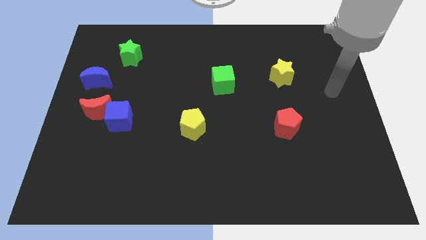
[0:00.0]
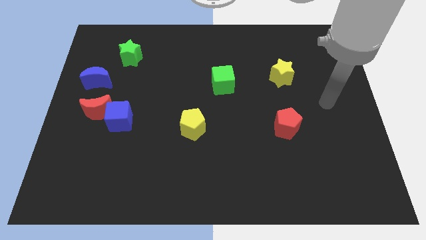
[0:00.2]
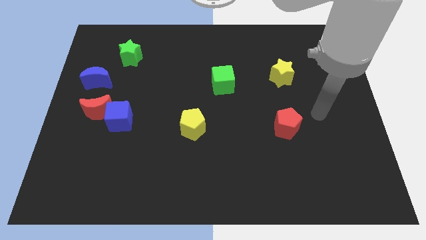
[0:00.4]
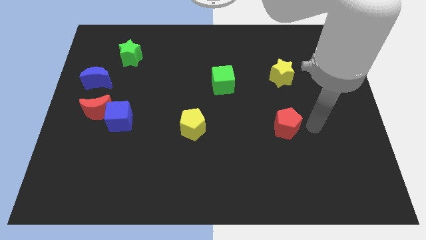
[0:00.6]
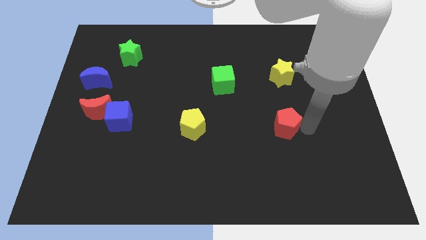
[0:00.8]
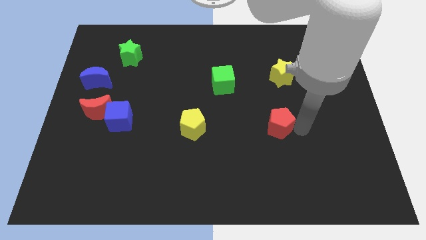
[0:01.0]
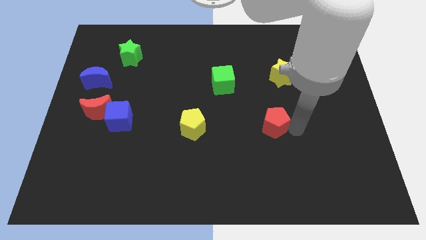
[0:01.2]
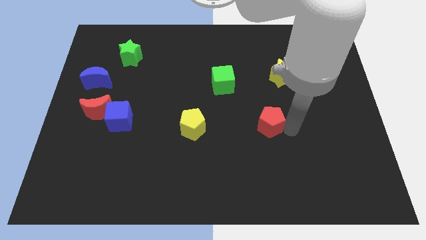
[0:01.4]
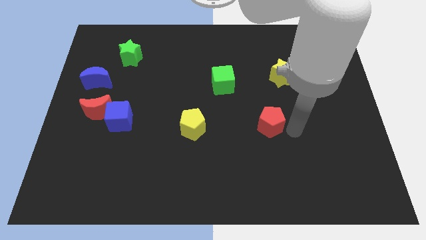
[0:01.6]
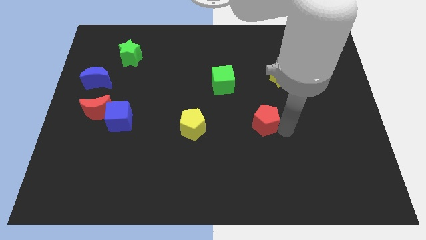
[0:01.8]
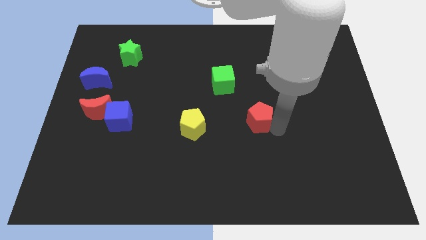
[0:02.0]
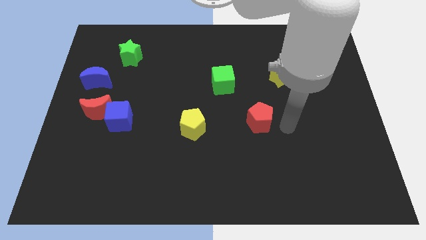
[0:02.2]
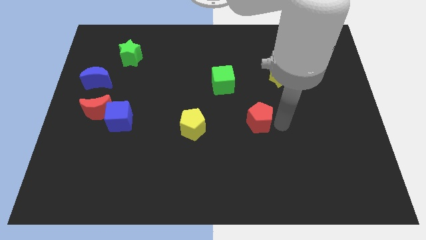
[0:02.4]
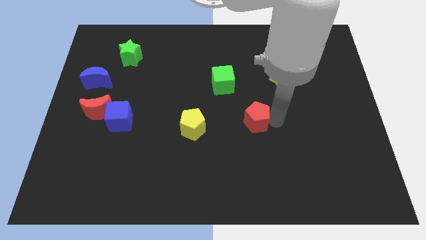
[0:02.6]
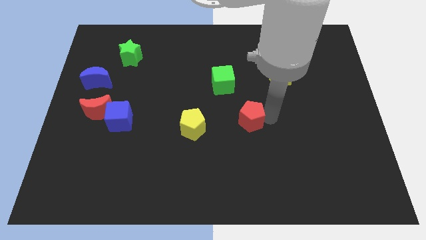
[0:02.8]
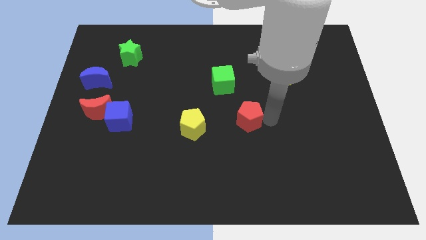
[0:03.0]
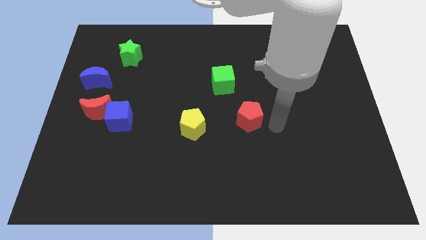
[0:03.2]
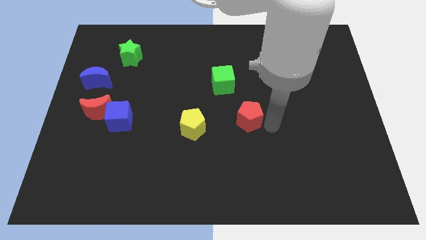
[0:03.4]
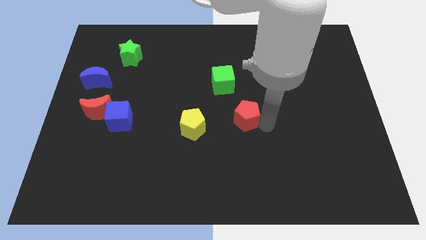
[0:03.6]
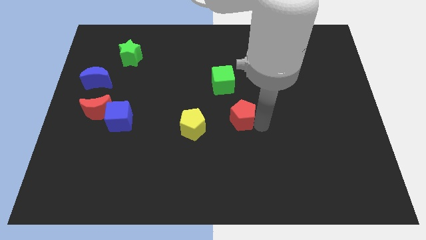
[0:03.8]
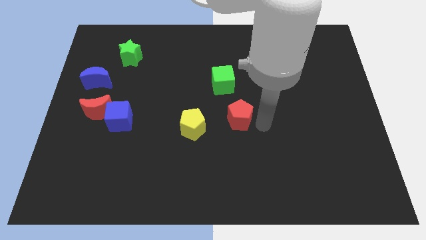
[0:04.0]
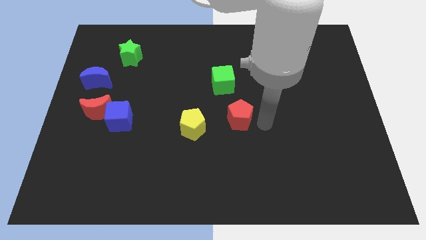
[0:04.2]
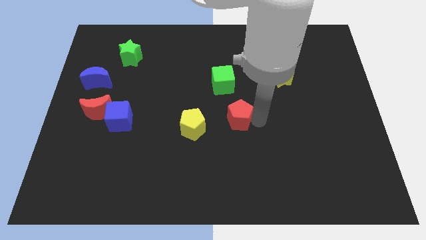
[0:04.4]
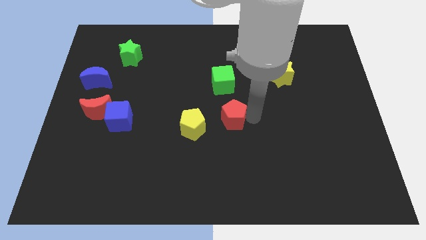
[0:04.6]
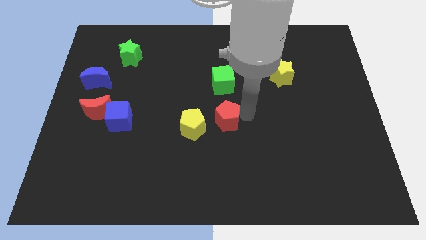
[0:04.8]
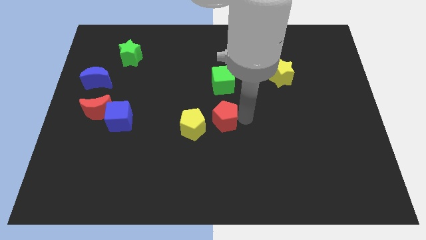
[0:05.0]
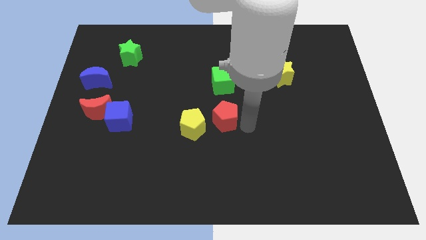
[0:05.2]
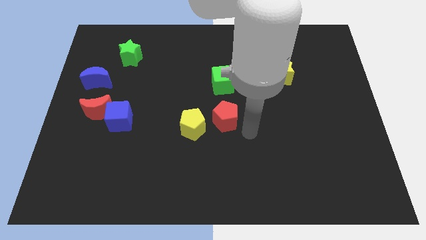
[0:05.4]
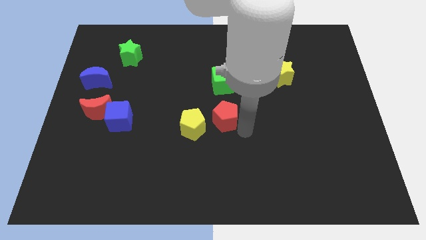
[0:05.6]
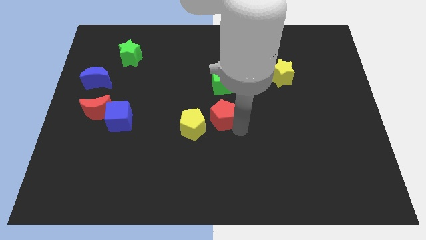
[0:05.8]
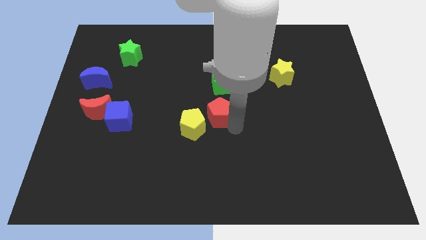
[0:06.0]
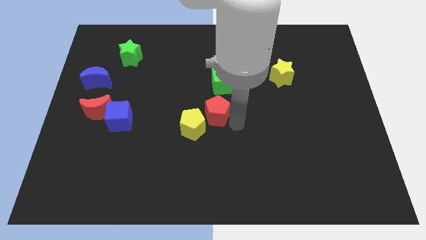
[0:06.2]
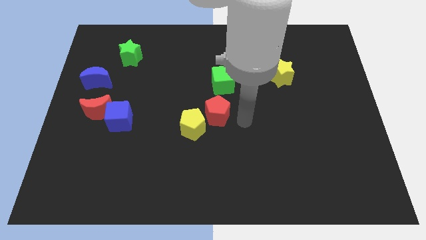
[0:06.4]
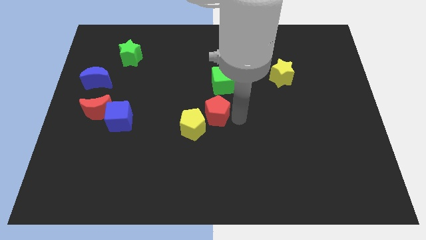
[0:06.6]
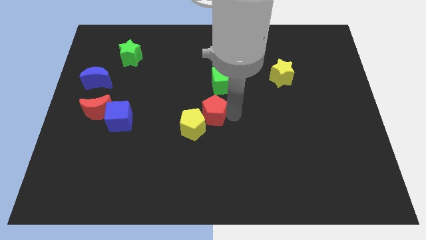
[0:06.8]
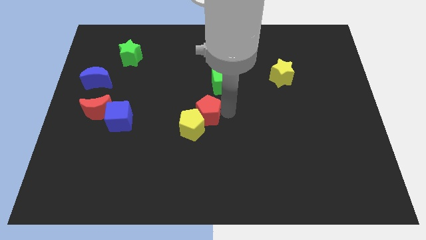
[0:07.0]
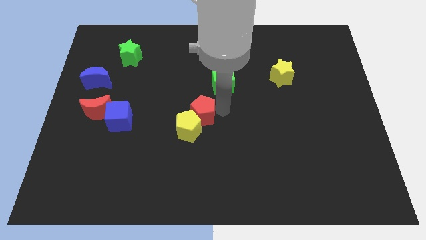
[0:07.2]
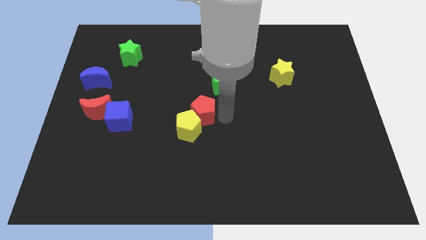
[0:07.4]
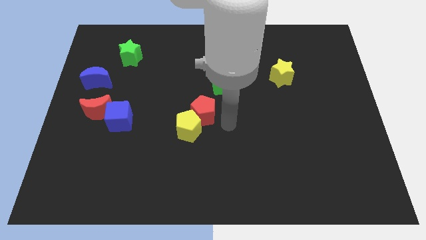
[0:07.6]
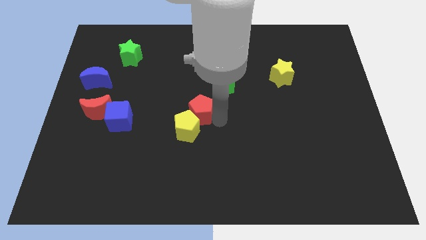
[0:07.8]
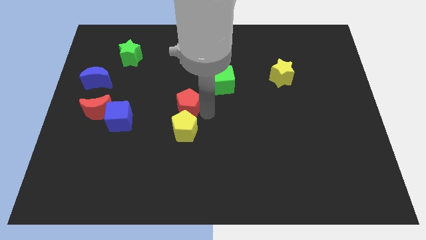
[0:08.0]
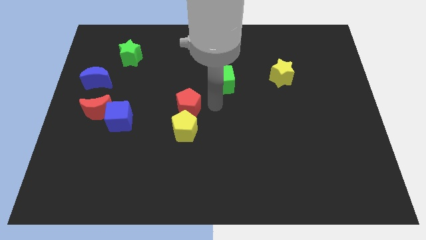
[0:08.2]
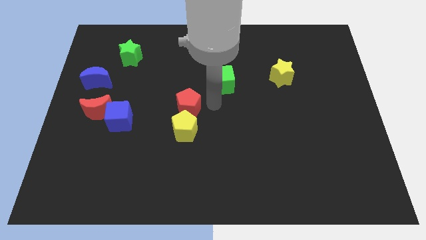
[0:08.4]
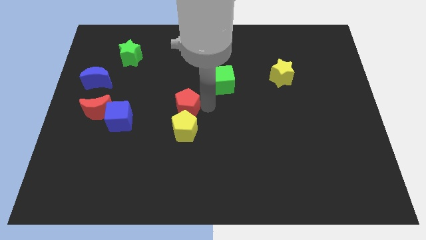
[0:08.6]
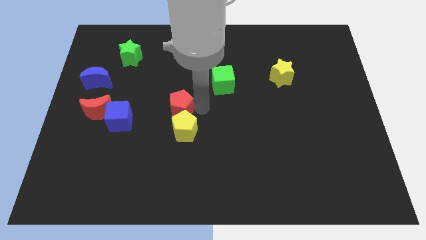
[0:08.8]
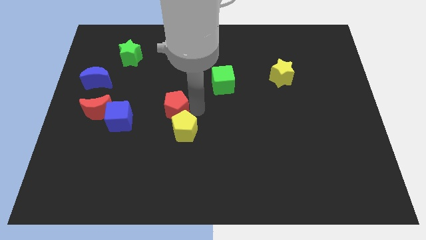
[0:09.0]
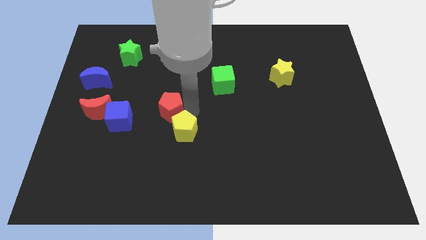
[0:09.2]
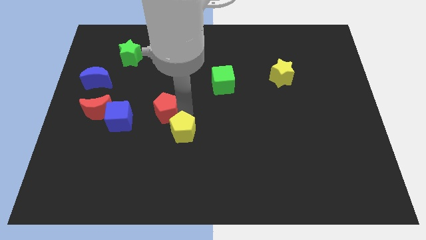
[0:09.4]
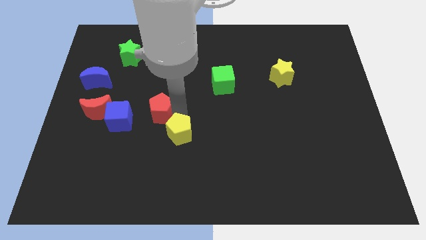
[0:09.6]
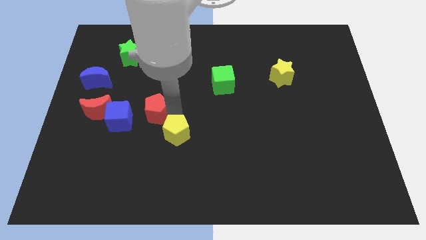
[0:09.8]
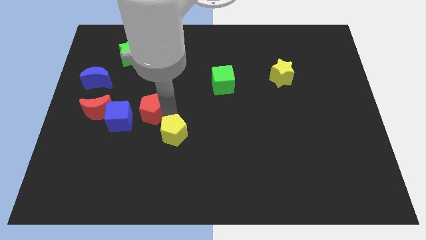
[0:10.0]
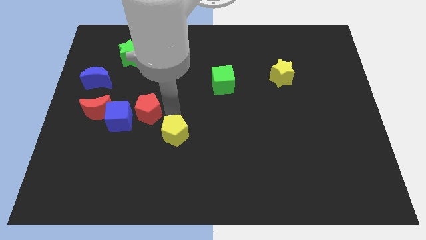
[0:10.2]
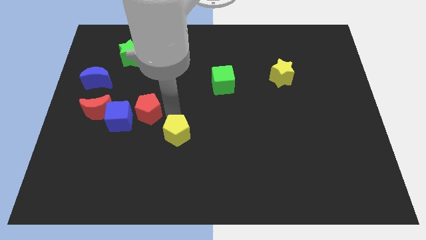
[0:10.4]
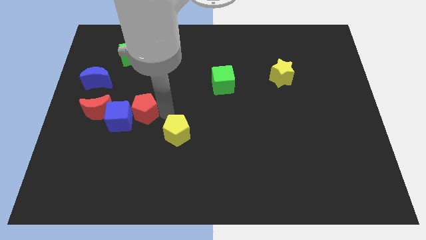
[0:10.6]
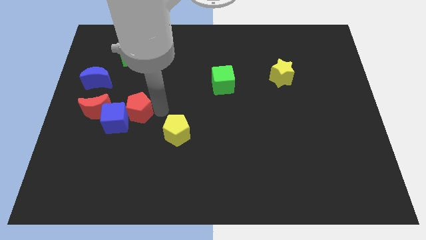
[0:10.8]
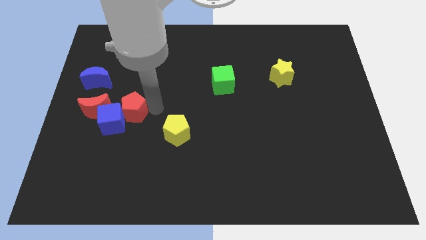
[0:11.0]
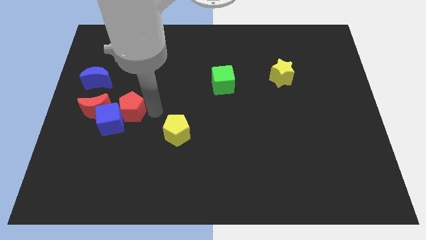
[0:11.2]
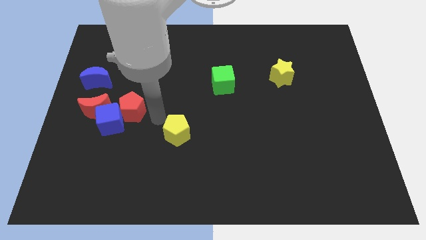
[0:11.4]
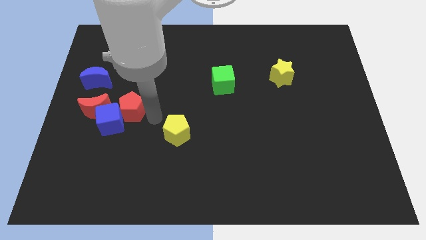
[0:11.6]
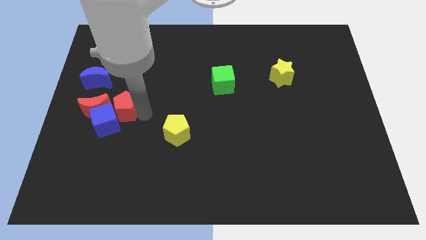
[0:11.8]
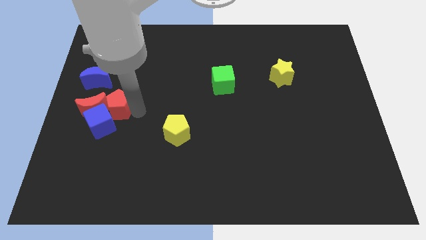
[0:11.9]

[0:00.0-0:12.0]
push the red pentagon towards the red moon
